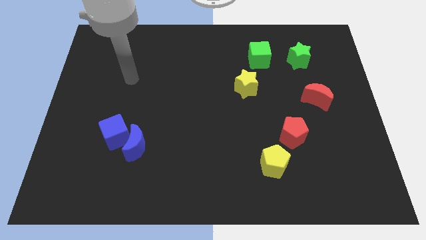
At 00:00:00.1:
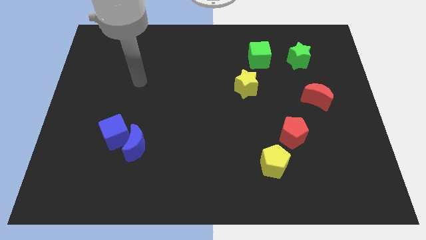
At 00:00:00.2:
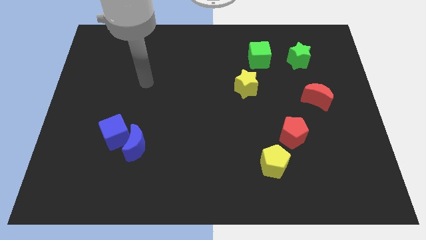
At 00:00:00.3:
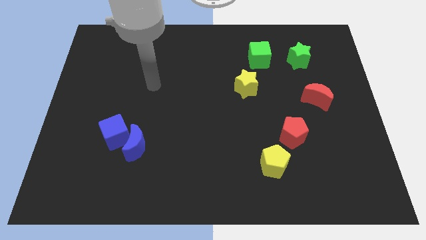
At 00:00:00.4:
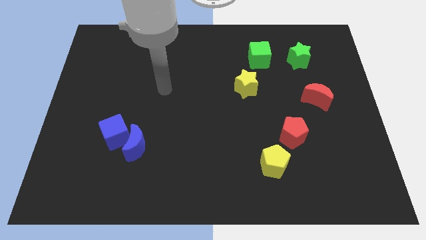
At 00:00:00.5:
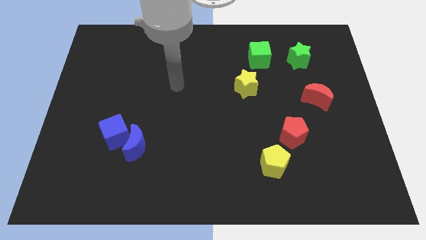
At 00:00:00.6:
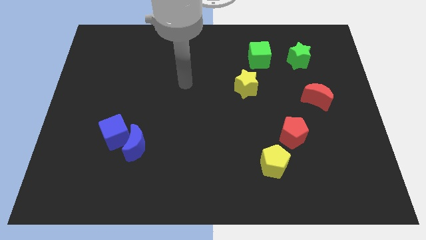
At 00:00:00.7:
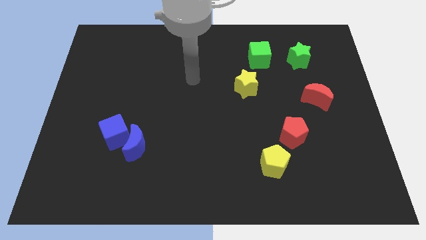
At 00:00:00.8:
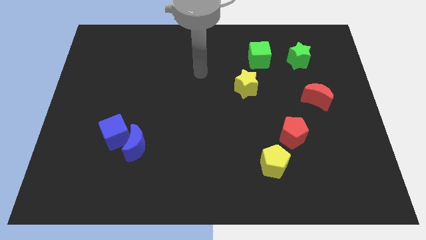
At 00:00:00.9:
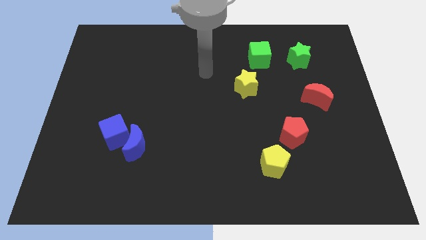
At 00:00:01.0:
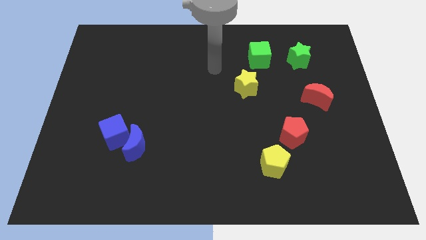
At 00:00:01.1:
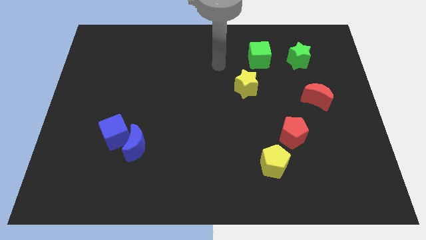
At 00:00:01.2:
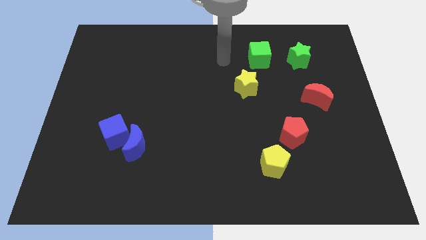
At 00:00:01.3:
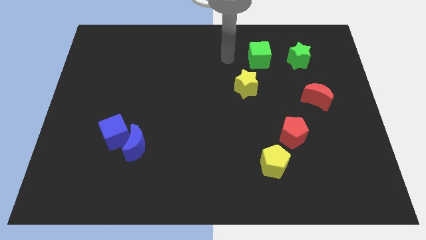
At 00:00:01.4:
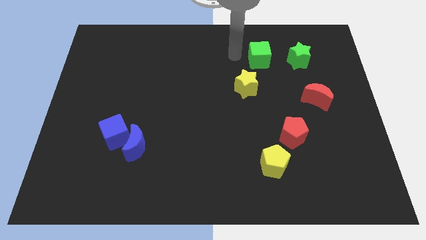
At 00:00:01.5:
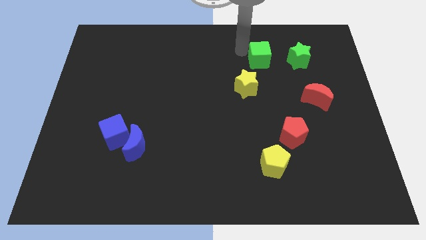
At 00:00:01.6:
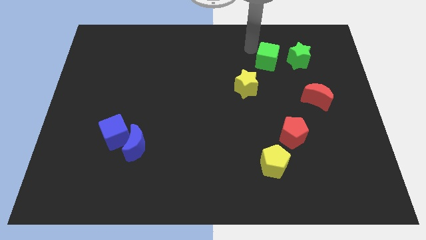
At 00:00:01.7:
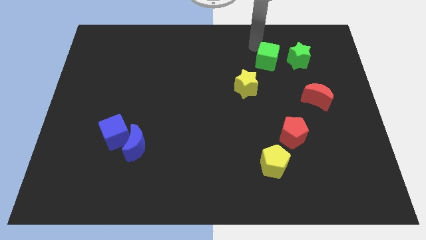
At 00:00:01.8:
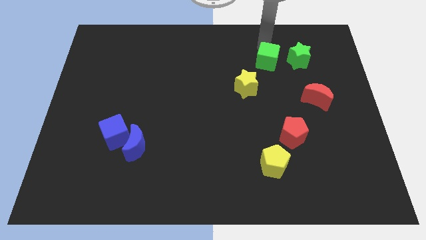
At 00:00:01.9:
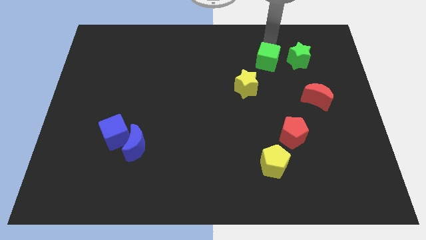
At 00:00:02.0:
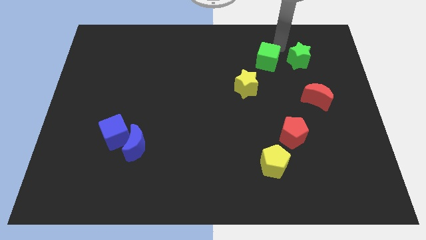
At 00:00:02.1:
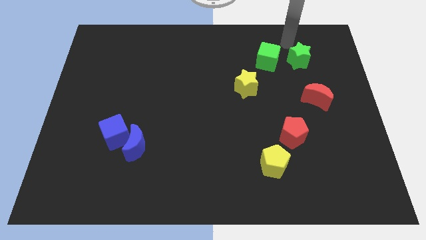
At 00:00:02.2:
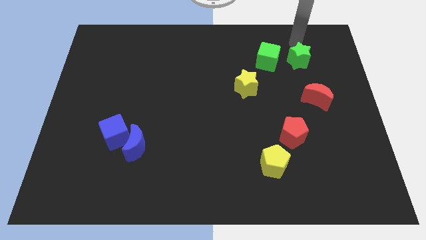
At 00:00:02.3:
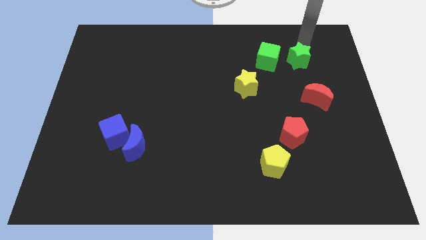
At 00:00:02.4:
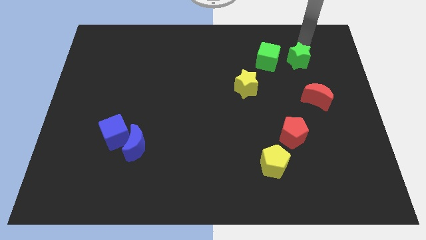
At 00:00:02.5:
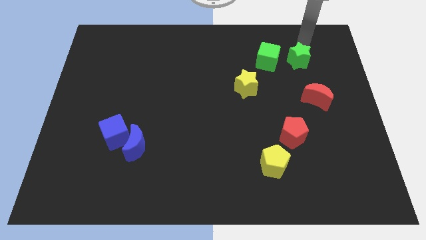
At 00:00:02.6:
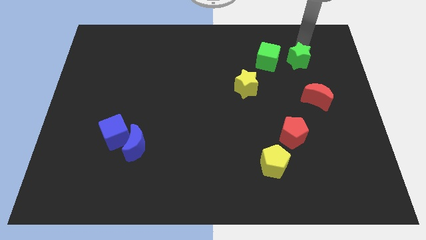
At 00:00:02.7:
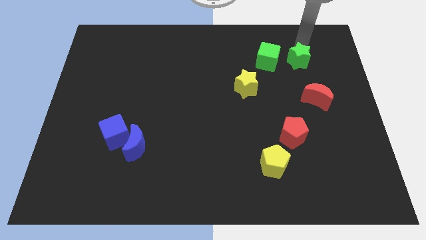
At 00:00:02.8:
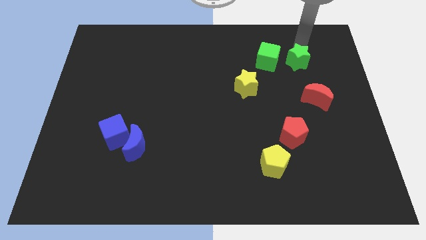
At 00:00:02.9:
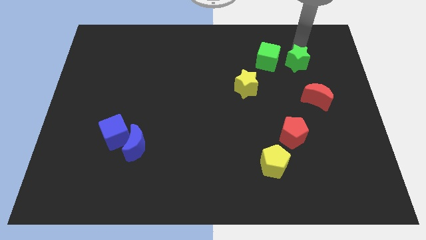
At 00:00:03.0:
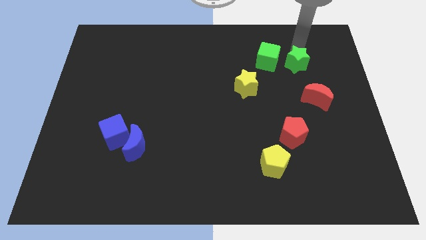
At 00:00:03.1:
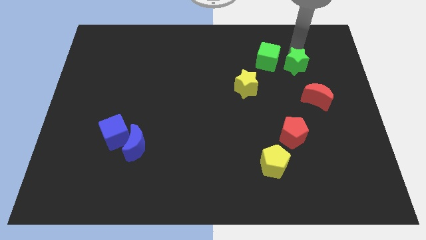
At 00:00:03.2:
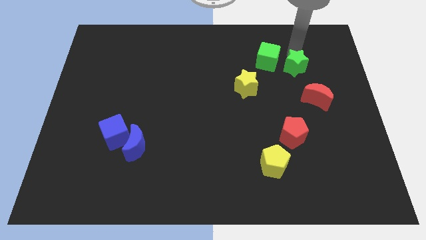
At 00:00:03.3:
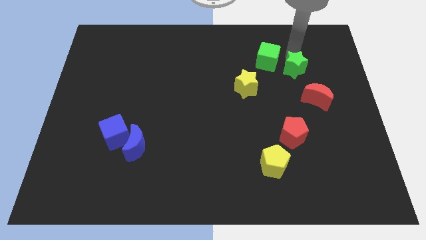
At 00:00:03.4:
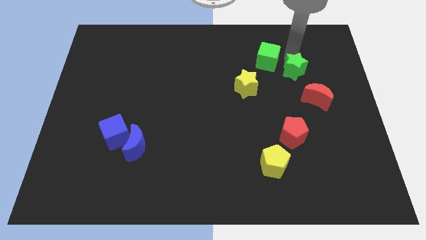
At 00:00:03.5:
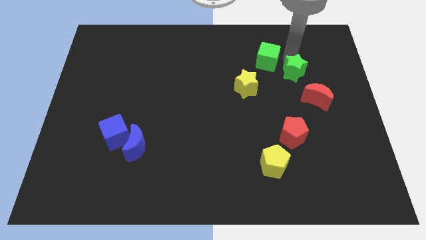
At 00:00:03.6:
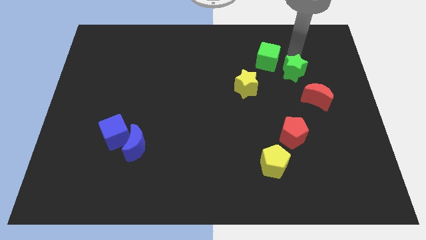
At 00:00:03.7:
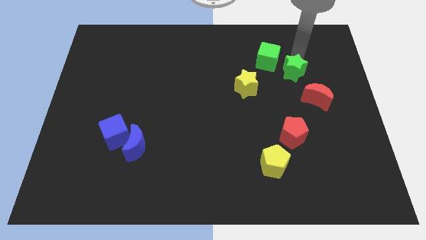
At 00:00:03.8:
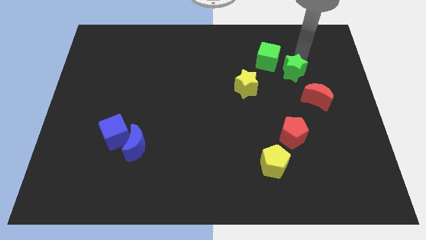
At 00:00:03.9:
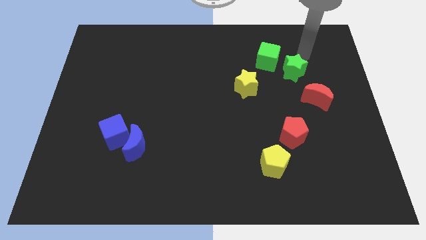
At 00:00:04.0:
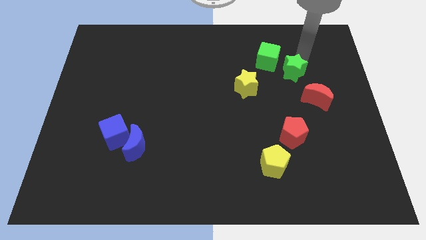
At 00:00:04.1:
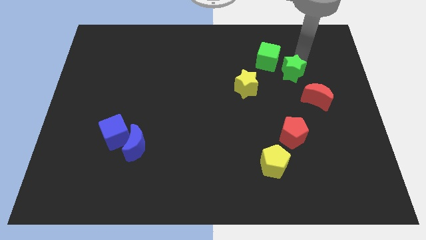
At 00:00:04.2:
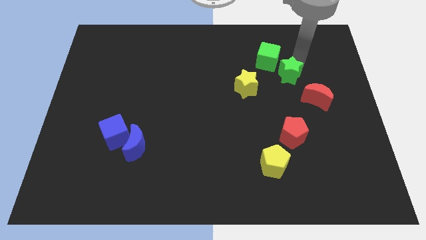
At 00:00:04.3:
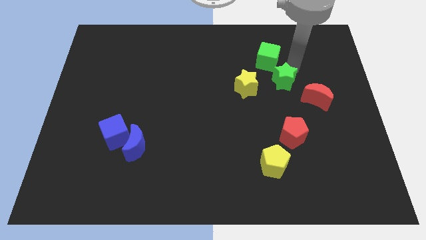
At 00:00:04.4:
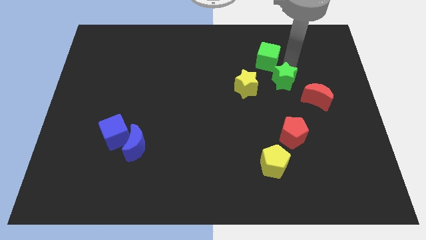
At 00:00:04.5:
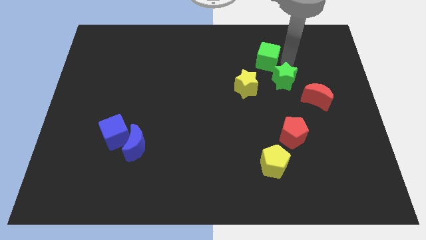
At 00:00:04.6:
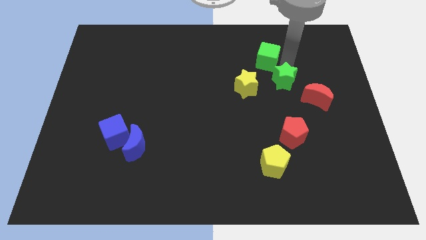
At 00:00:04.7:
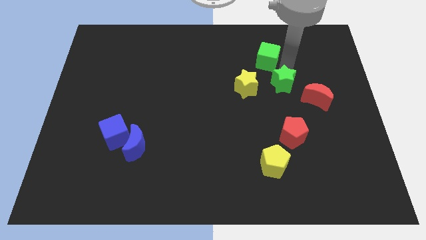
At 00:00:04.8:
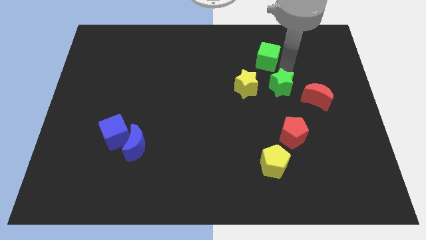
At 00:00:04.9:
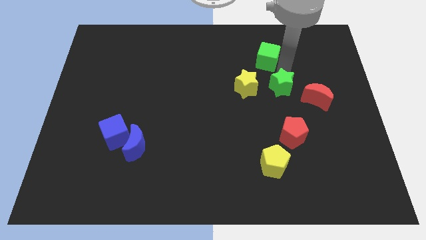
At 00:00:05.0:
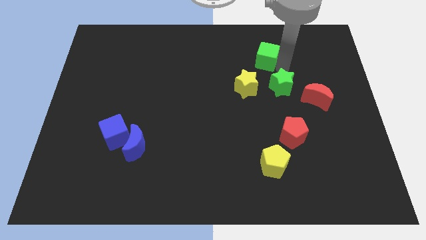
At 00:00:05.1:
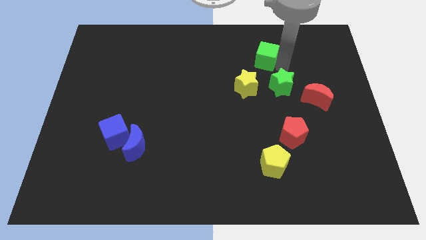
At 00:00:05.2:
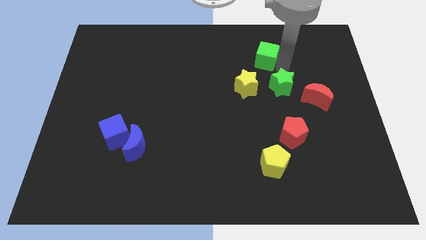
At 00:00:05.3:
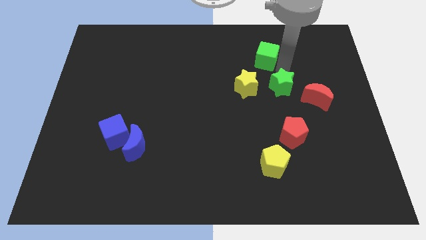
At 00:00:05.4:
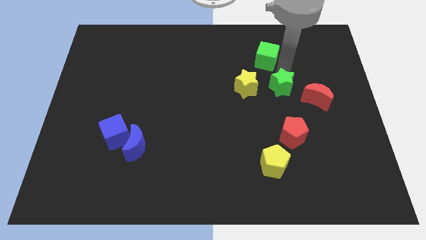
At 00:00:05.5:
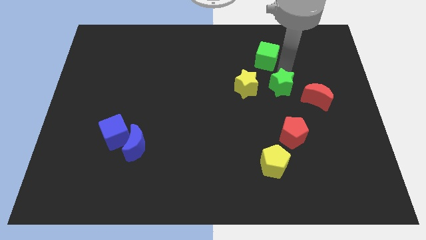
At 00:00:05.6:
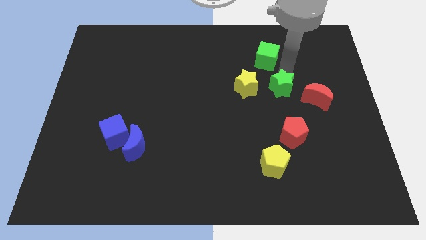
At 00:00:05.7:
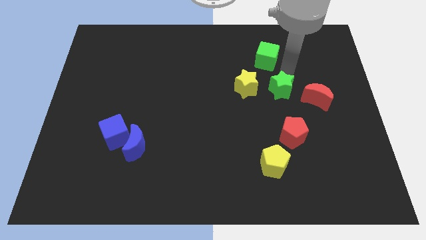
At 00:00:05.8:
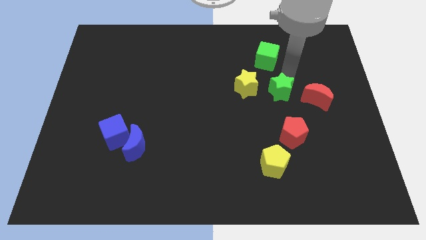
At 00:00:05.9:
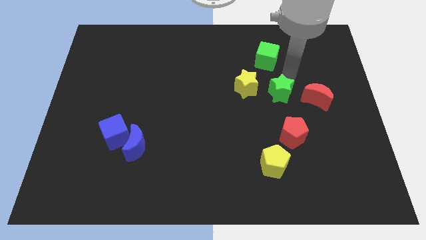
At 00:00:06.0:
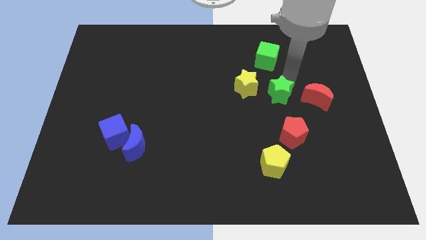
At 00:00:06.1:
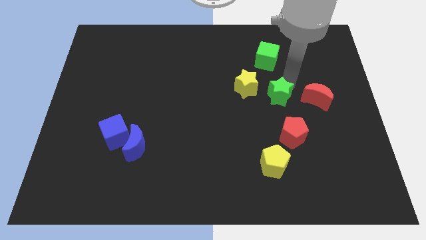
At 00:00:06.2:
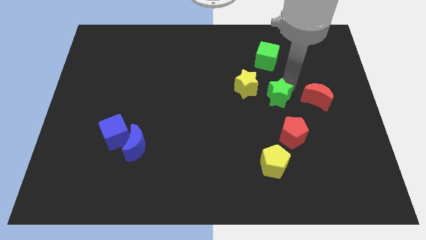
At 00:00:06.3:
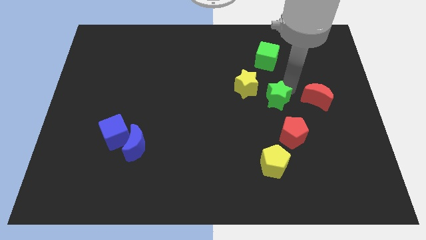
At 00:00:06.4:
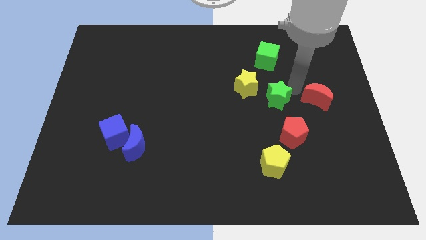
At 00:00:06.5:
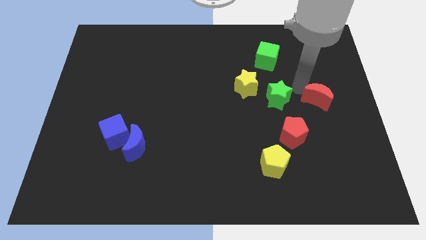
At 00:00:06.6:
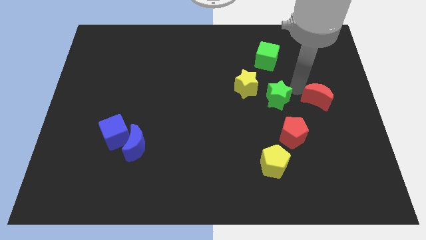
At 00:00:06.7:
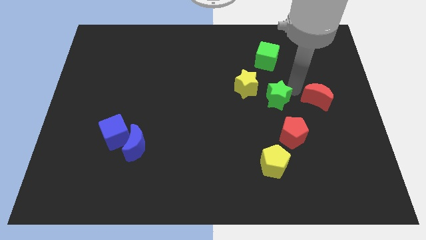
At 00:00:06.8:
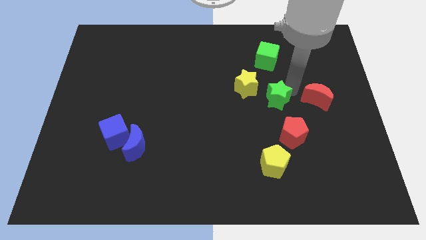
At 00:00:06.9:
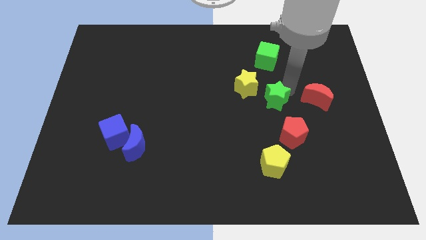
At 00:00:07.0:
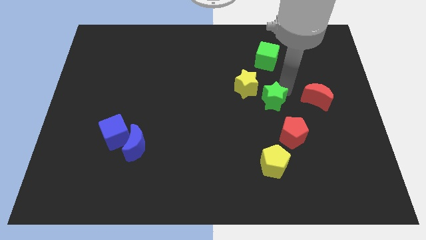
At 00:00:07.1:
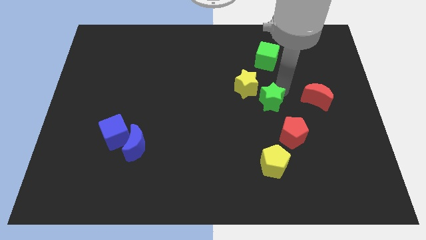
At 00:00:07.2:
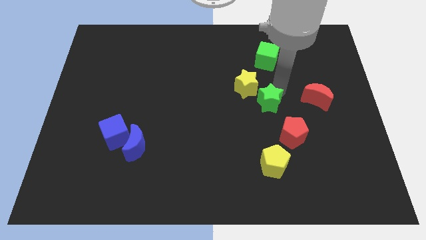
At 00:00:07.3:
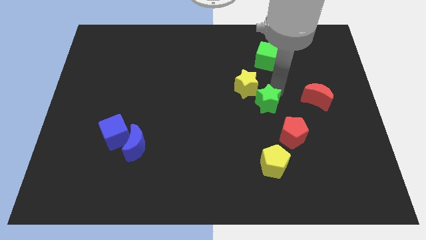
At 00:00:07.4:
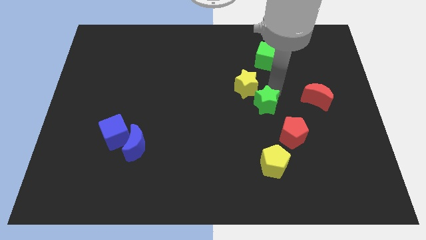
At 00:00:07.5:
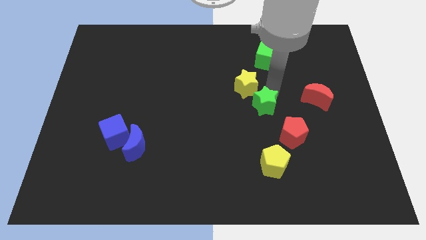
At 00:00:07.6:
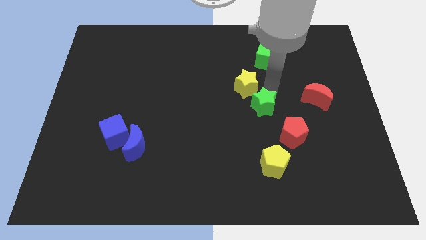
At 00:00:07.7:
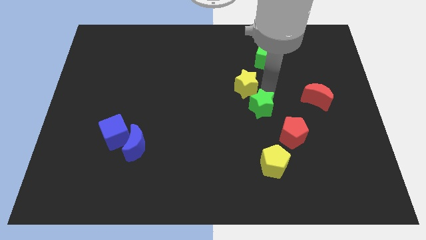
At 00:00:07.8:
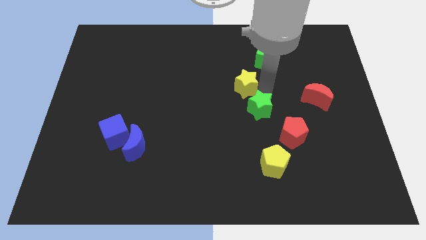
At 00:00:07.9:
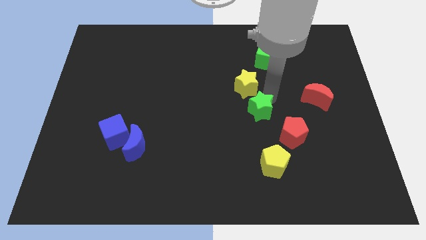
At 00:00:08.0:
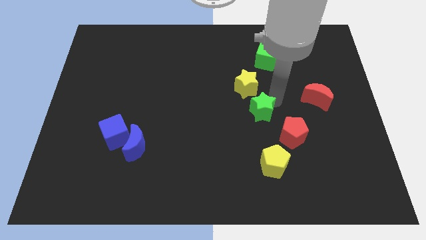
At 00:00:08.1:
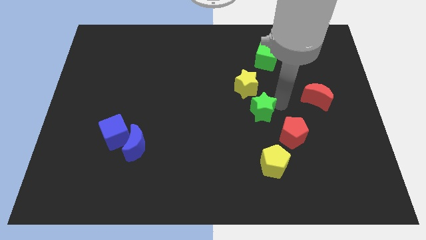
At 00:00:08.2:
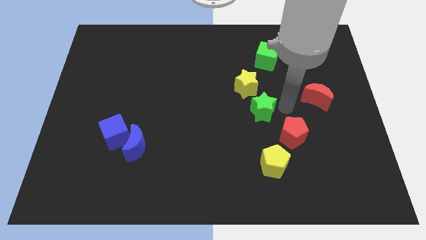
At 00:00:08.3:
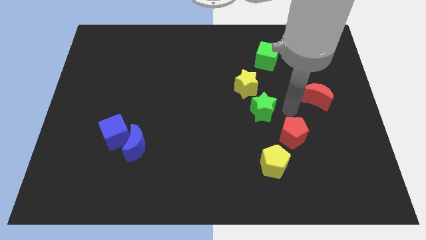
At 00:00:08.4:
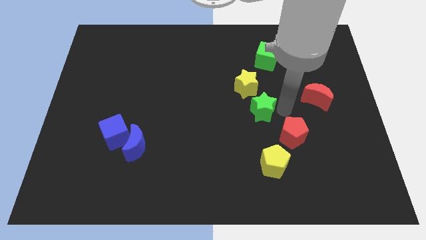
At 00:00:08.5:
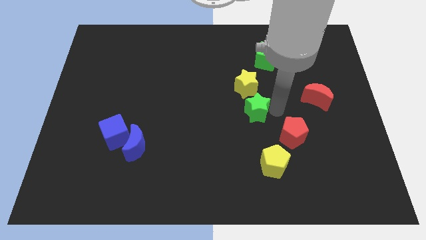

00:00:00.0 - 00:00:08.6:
move the green star diagonally downwards and to the left
